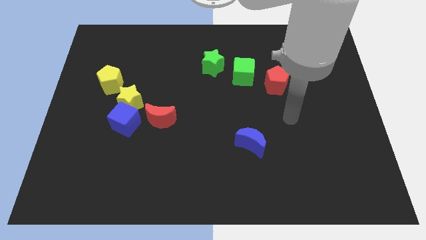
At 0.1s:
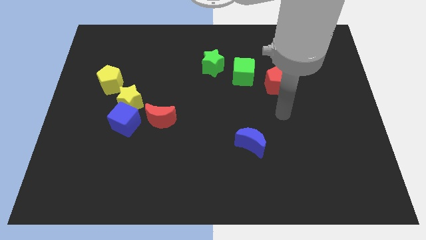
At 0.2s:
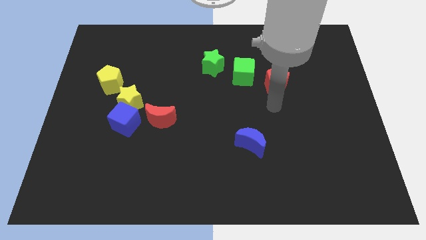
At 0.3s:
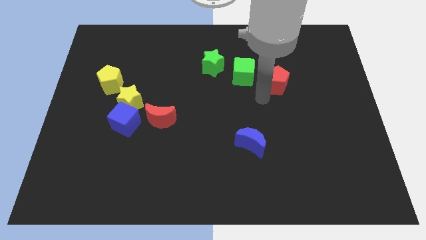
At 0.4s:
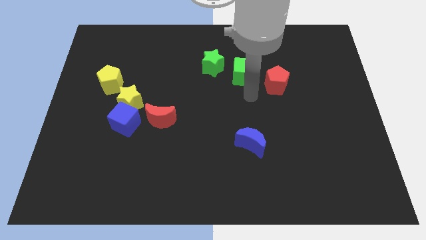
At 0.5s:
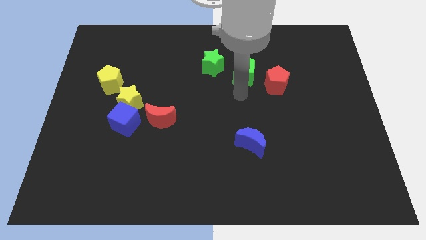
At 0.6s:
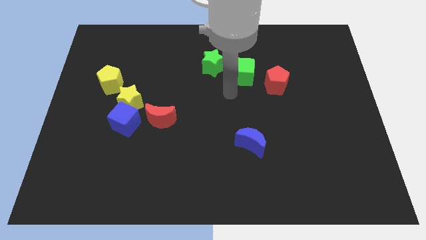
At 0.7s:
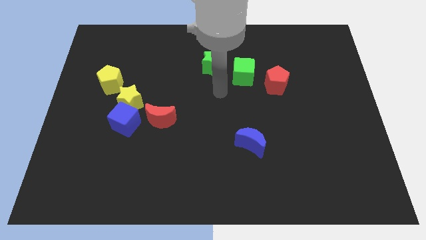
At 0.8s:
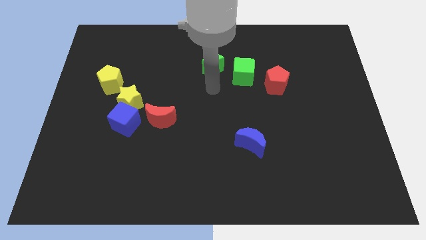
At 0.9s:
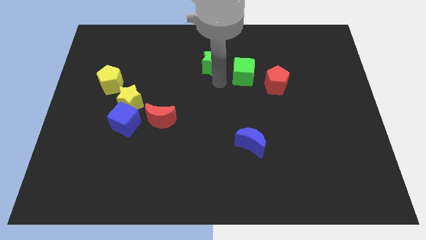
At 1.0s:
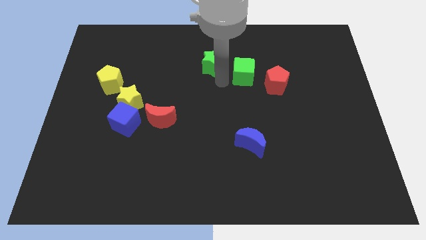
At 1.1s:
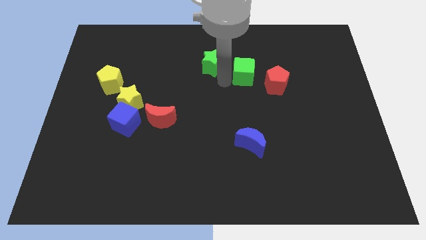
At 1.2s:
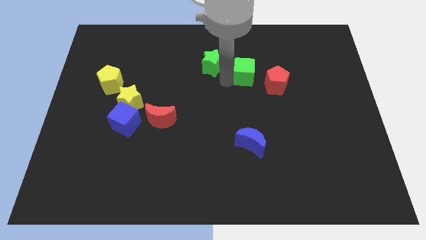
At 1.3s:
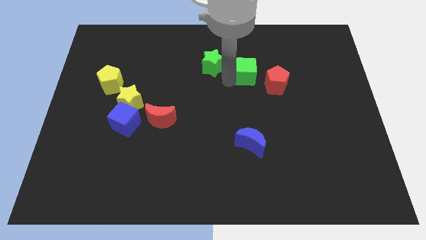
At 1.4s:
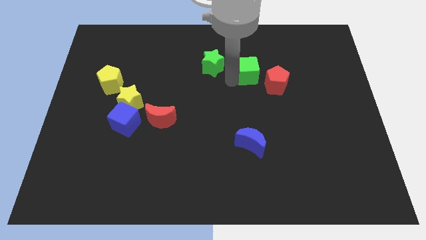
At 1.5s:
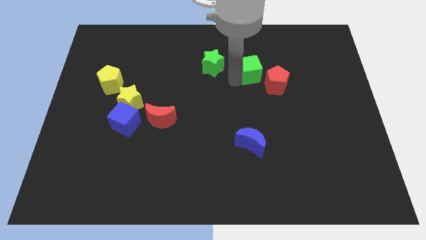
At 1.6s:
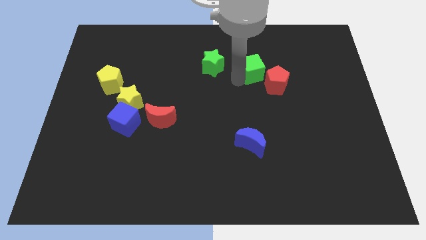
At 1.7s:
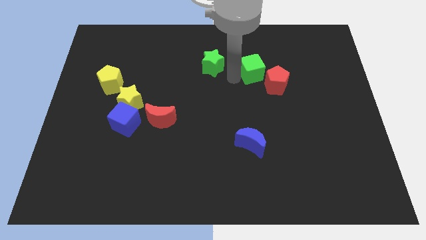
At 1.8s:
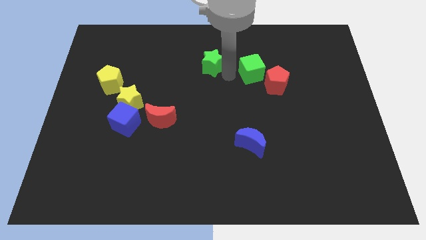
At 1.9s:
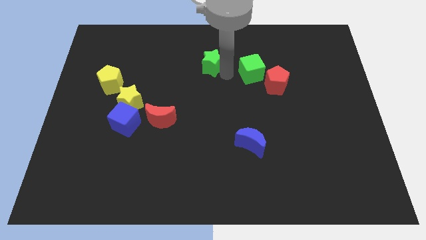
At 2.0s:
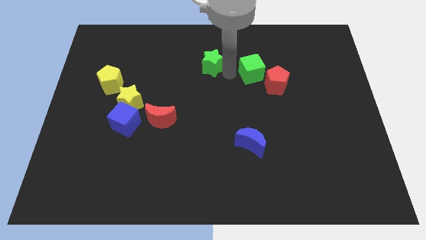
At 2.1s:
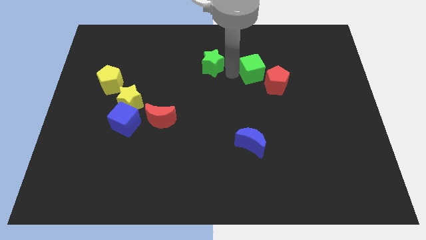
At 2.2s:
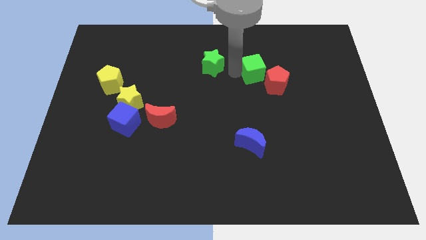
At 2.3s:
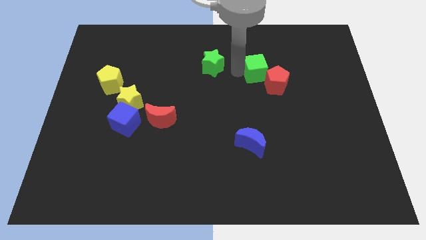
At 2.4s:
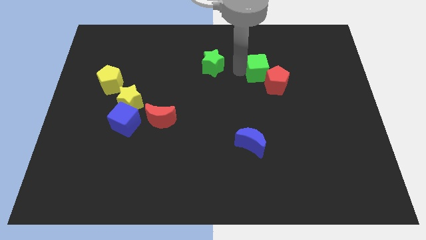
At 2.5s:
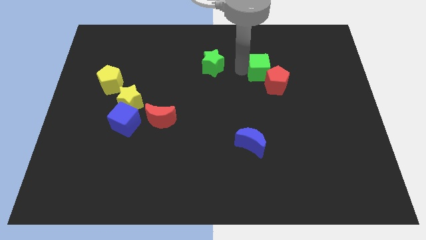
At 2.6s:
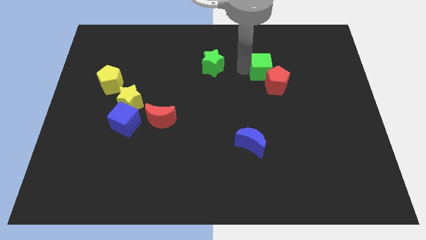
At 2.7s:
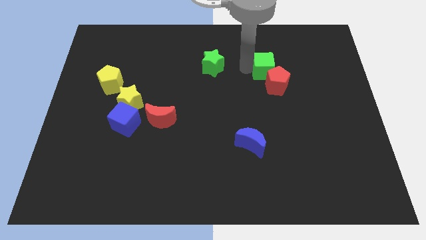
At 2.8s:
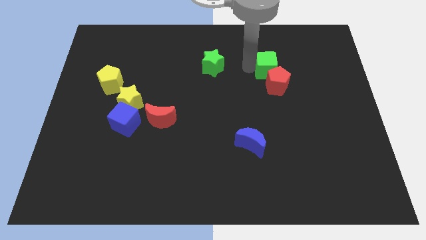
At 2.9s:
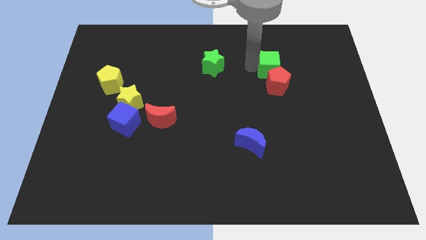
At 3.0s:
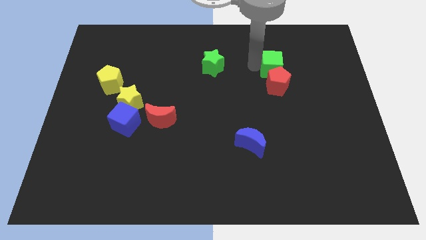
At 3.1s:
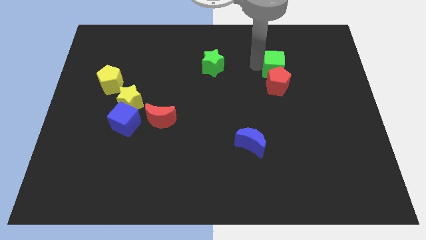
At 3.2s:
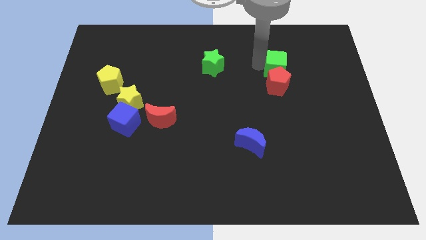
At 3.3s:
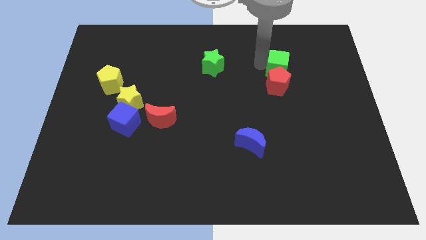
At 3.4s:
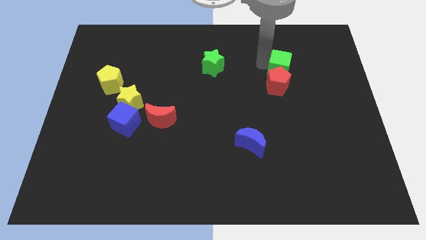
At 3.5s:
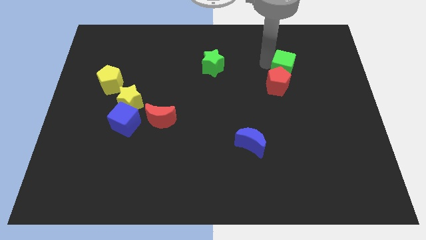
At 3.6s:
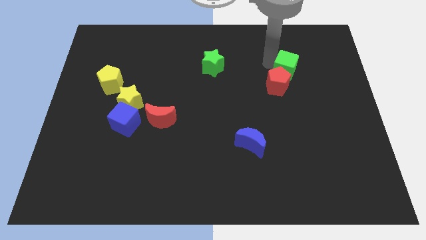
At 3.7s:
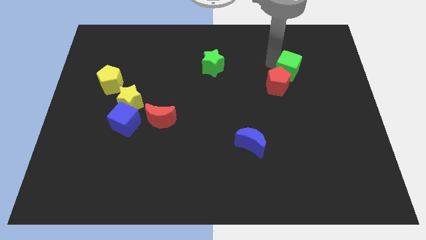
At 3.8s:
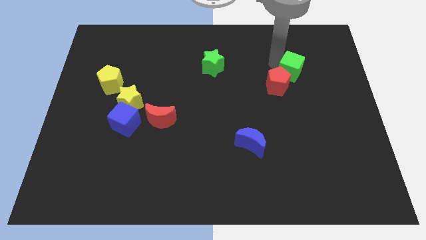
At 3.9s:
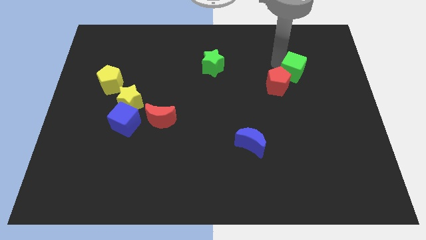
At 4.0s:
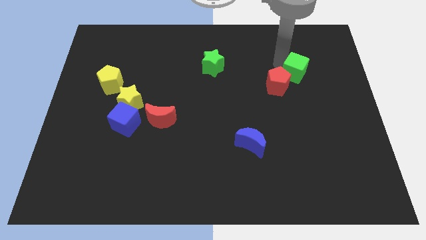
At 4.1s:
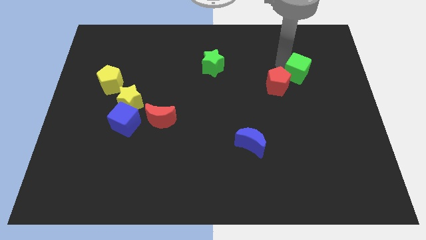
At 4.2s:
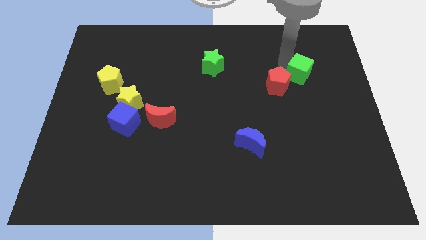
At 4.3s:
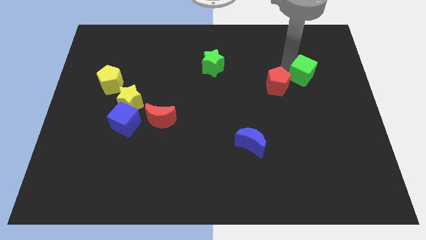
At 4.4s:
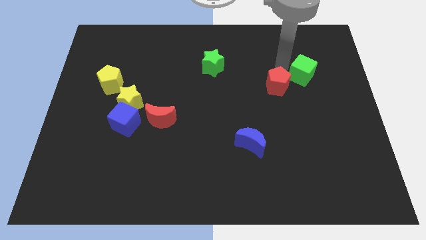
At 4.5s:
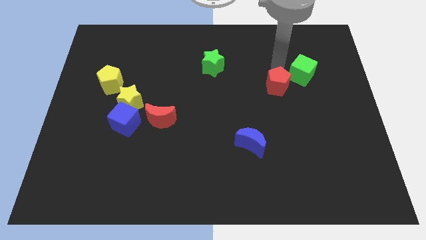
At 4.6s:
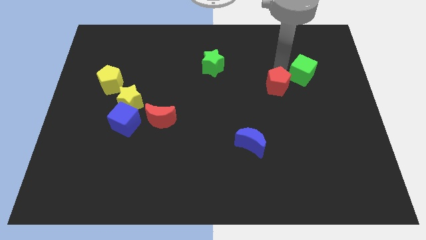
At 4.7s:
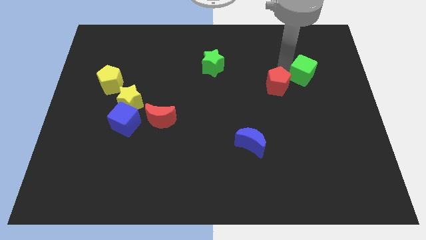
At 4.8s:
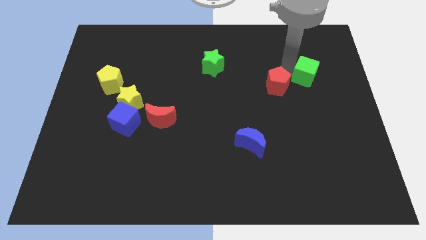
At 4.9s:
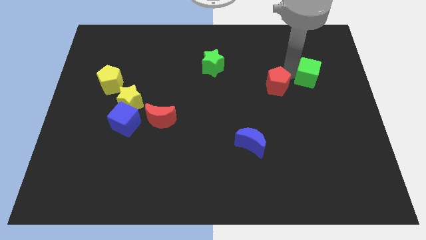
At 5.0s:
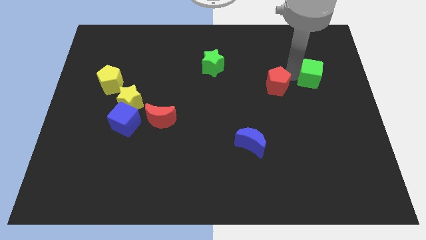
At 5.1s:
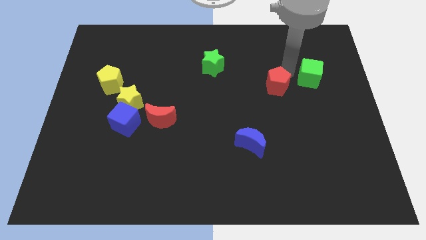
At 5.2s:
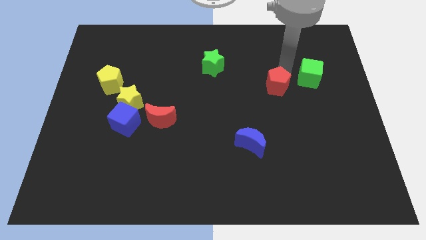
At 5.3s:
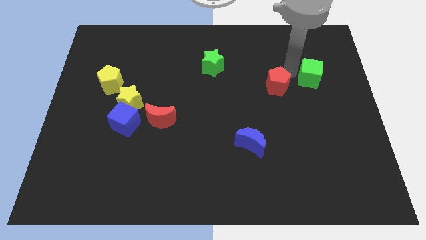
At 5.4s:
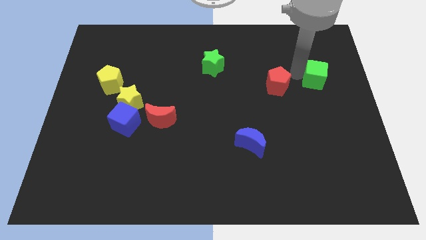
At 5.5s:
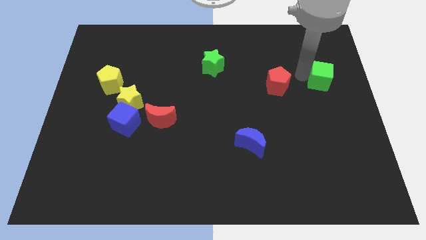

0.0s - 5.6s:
put the green cube to the center right

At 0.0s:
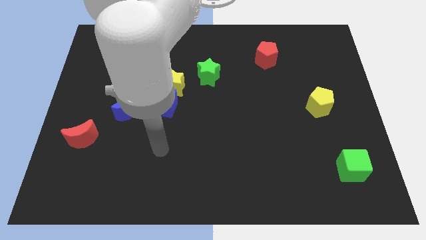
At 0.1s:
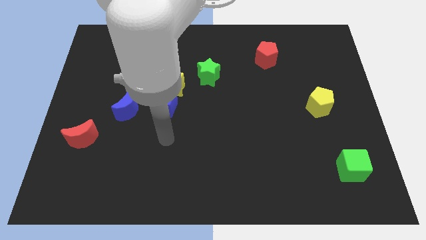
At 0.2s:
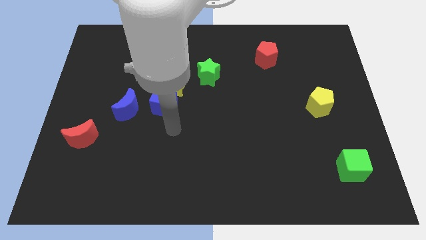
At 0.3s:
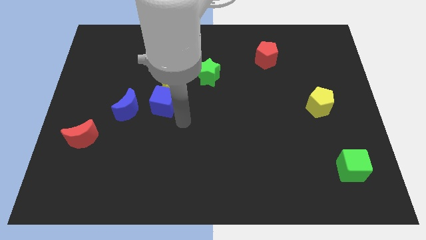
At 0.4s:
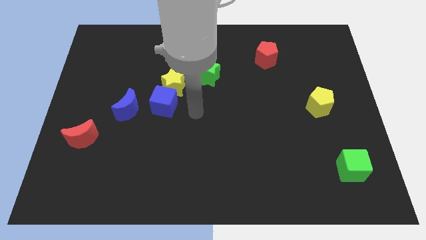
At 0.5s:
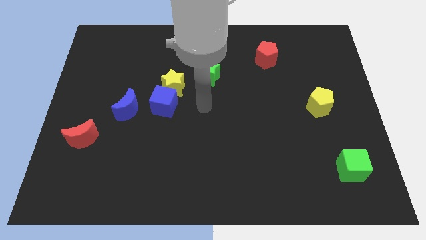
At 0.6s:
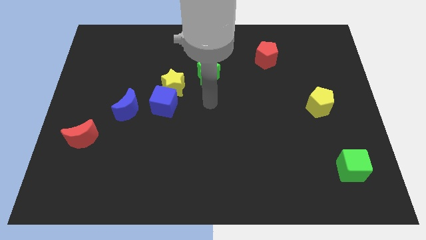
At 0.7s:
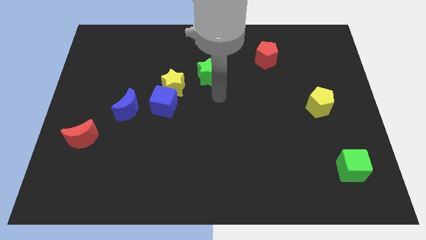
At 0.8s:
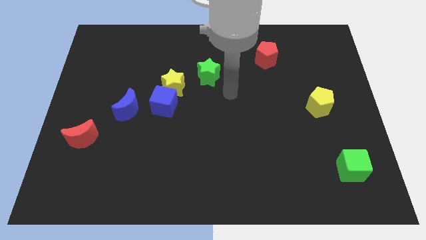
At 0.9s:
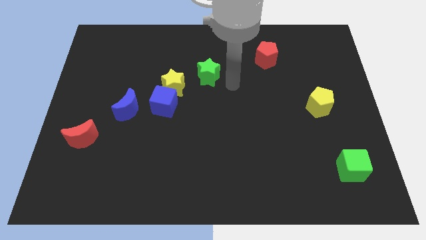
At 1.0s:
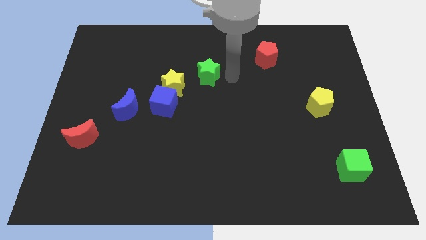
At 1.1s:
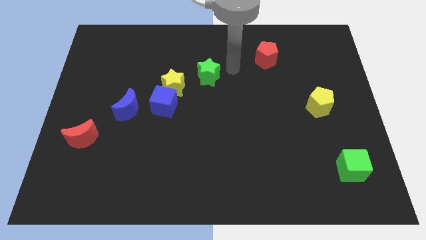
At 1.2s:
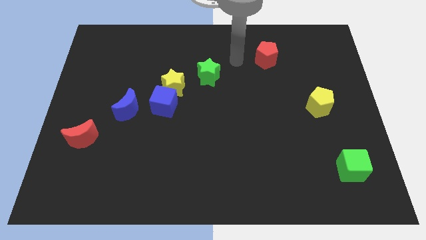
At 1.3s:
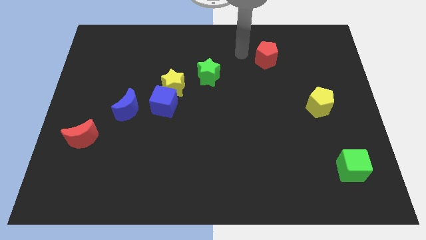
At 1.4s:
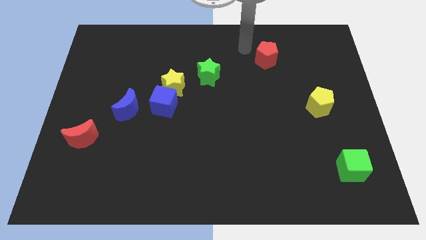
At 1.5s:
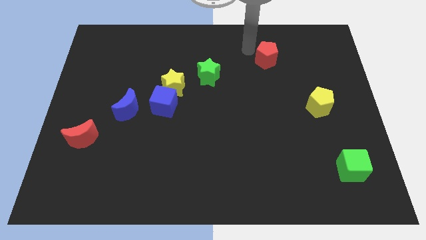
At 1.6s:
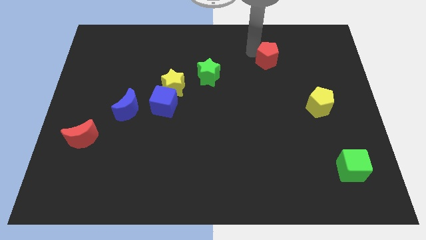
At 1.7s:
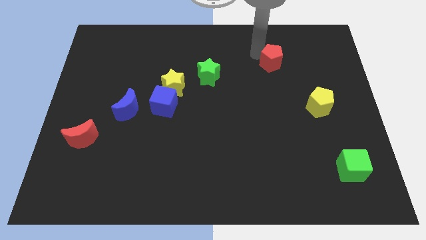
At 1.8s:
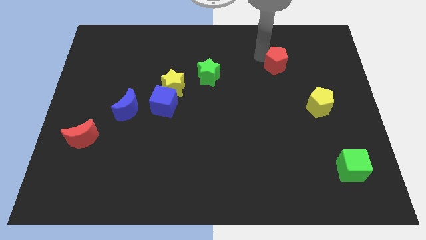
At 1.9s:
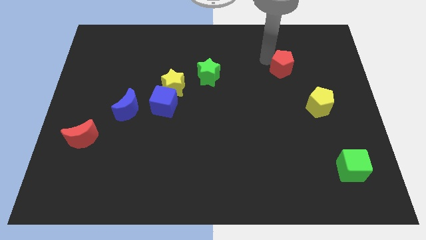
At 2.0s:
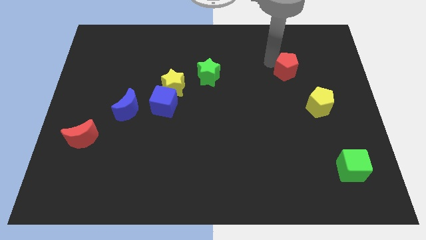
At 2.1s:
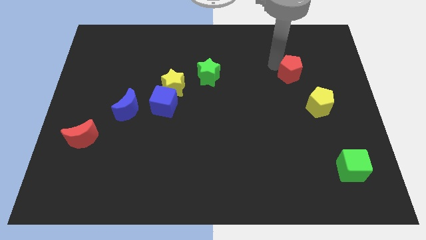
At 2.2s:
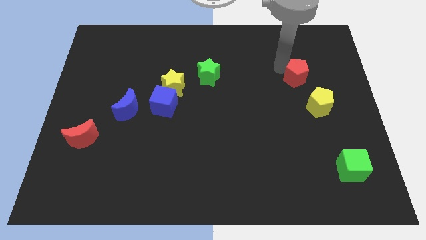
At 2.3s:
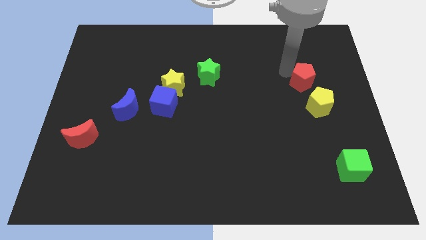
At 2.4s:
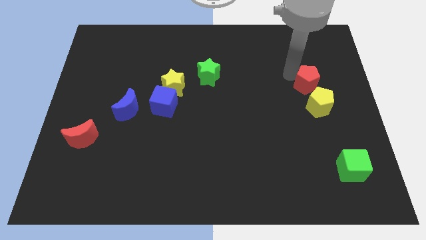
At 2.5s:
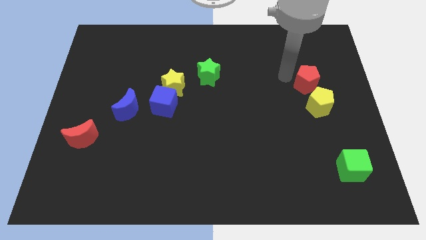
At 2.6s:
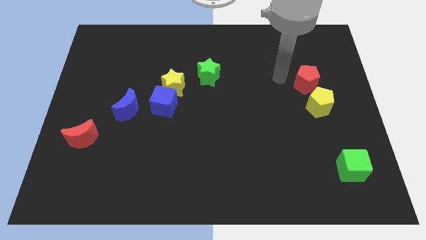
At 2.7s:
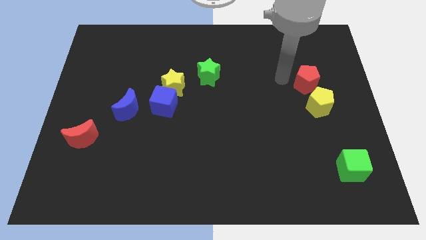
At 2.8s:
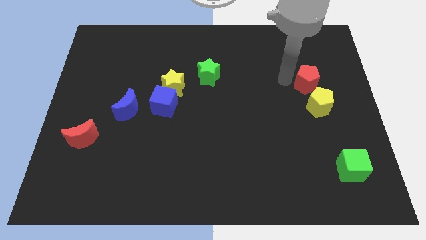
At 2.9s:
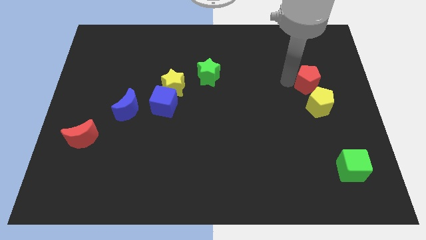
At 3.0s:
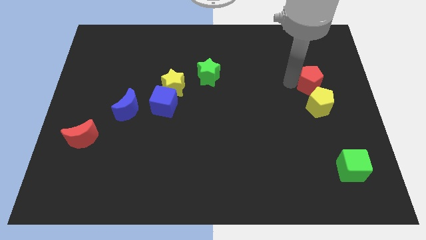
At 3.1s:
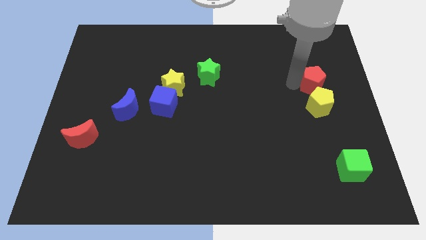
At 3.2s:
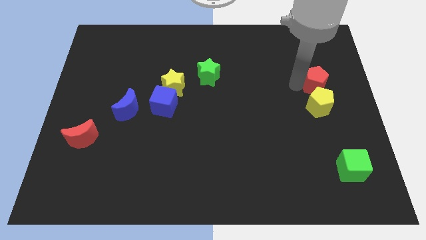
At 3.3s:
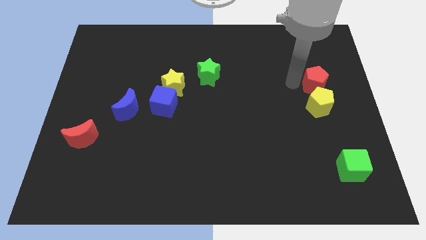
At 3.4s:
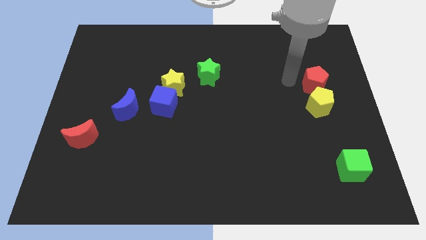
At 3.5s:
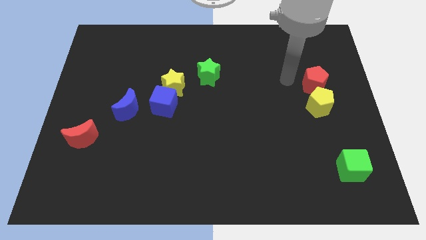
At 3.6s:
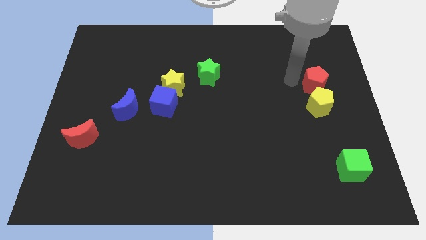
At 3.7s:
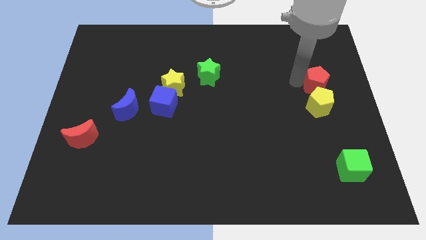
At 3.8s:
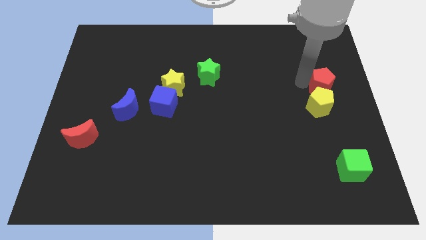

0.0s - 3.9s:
move the red pentagon to the center right
